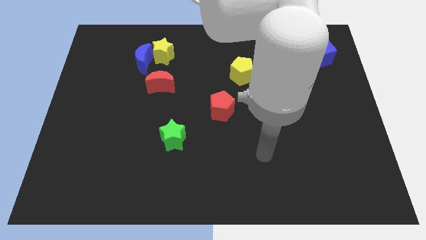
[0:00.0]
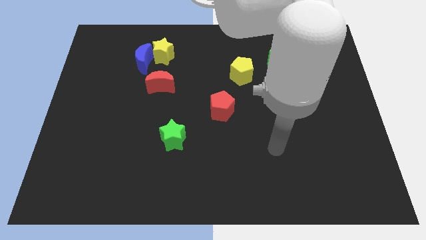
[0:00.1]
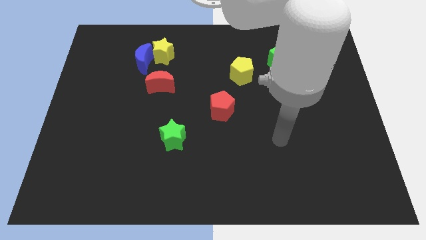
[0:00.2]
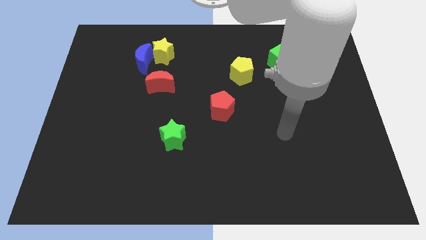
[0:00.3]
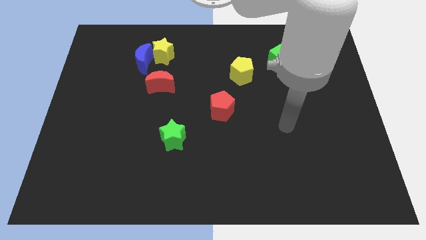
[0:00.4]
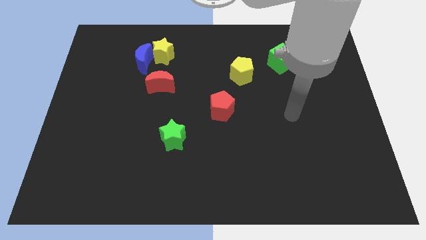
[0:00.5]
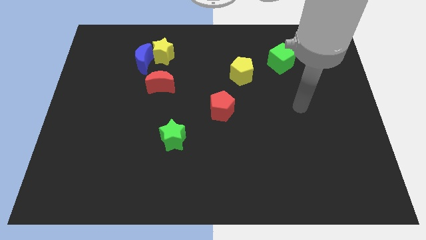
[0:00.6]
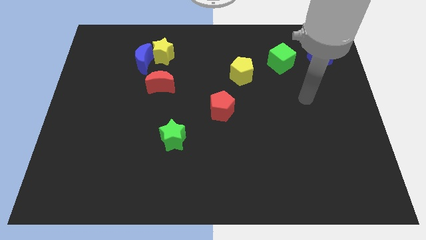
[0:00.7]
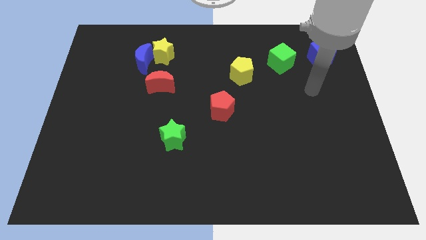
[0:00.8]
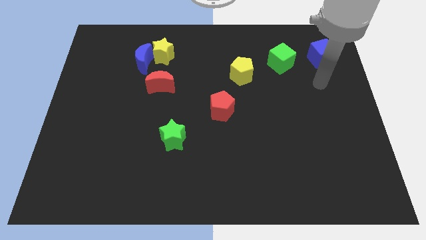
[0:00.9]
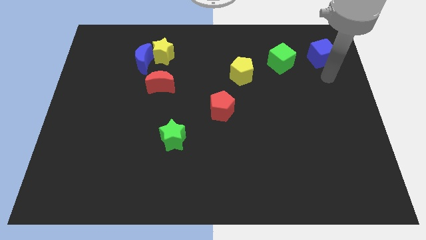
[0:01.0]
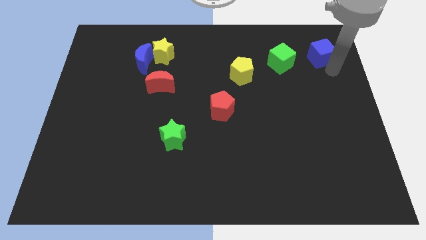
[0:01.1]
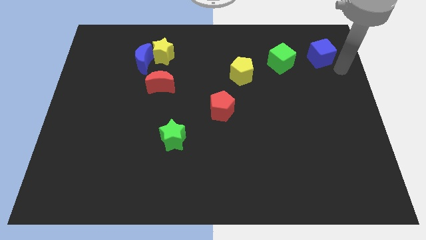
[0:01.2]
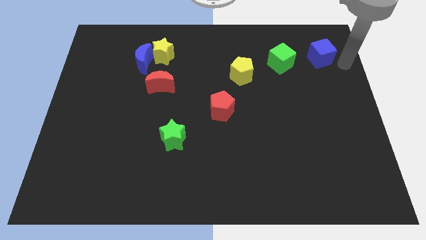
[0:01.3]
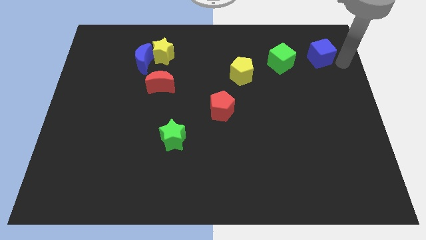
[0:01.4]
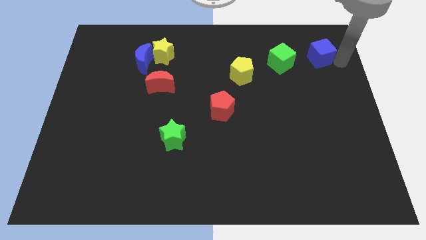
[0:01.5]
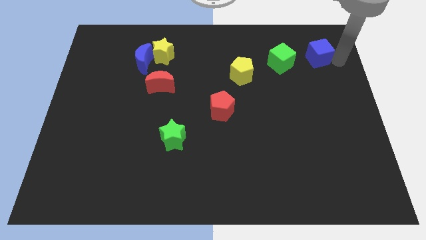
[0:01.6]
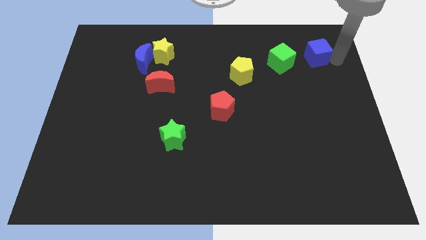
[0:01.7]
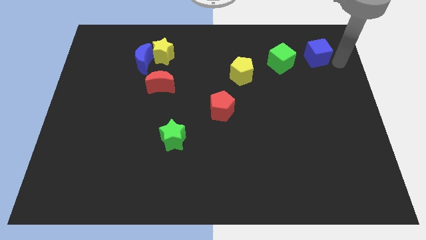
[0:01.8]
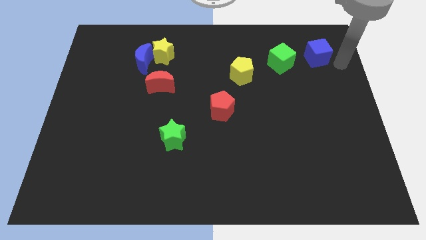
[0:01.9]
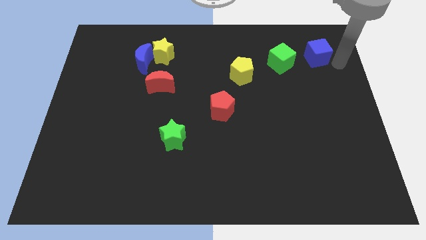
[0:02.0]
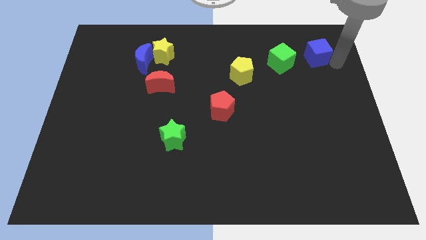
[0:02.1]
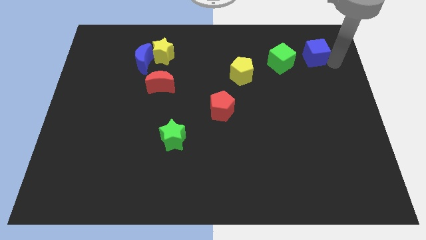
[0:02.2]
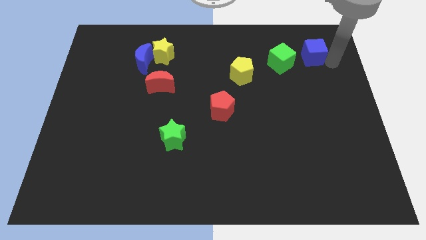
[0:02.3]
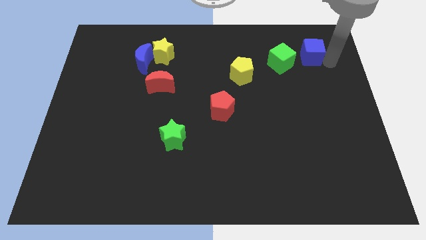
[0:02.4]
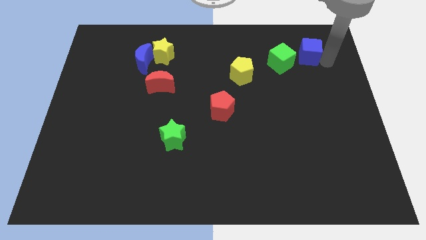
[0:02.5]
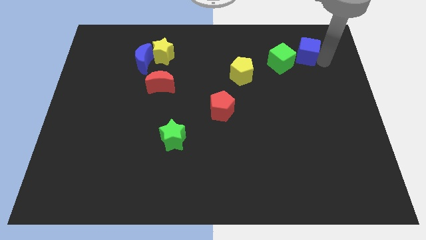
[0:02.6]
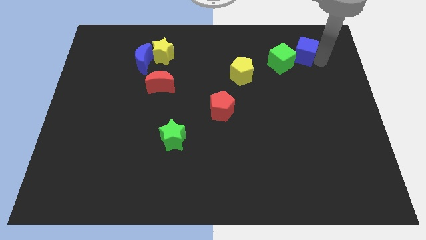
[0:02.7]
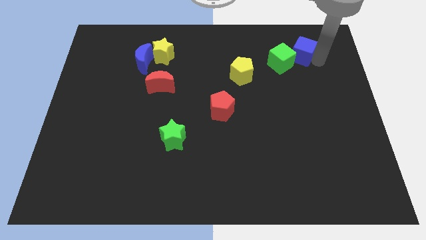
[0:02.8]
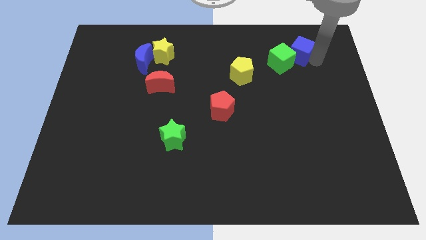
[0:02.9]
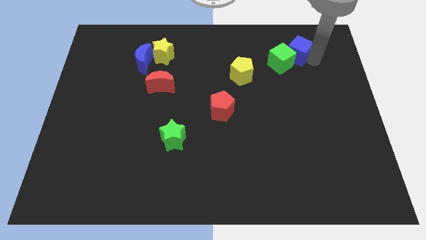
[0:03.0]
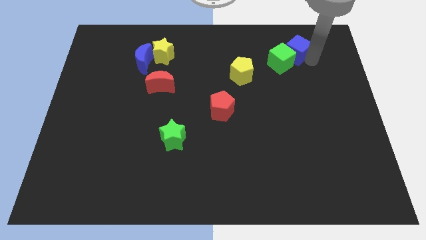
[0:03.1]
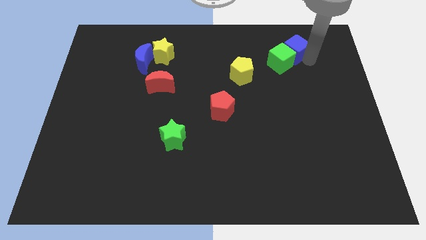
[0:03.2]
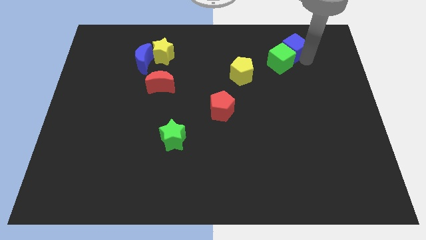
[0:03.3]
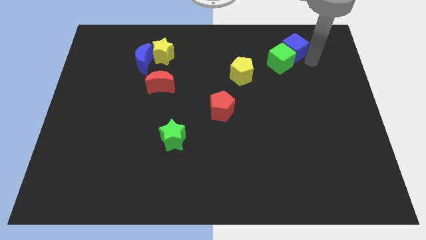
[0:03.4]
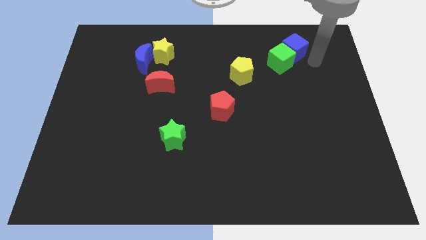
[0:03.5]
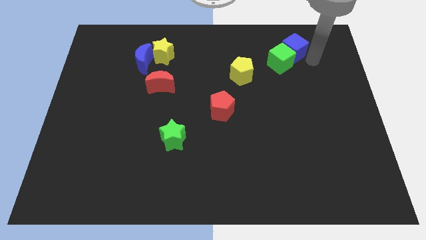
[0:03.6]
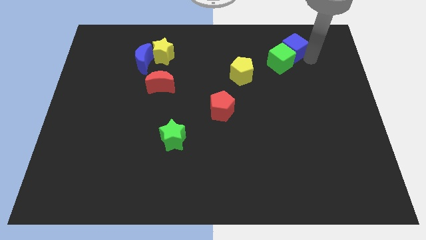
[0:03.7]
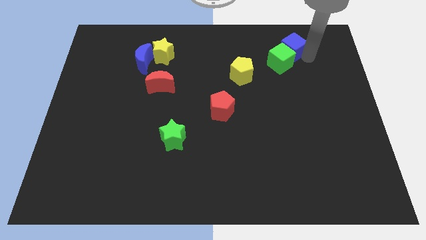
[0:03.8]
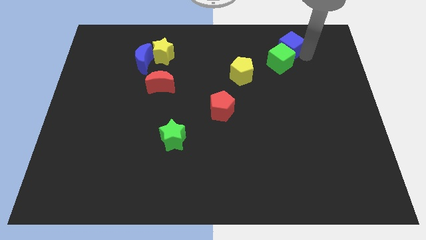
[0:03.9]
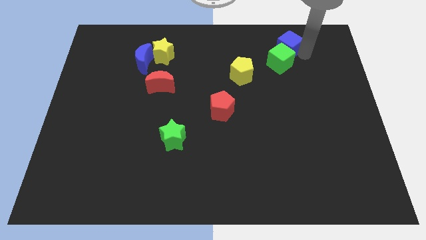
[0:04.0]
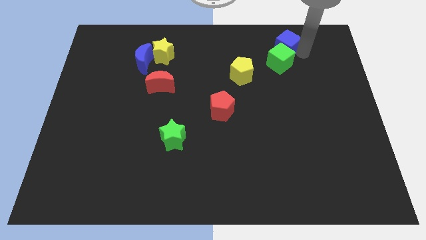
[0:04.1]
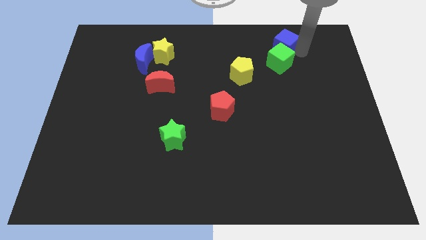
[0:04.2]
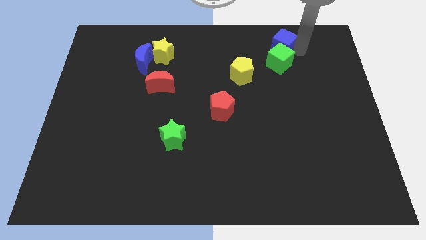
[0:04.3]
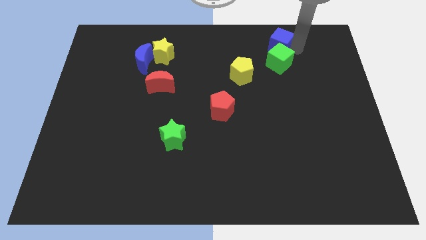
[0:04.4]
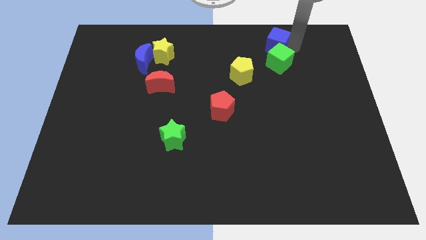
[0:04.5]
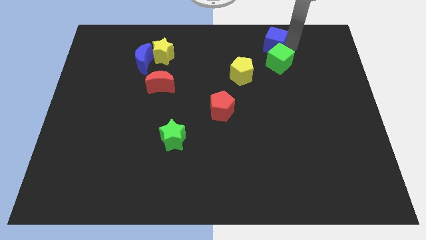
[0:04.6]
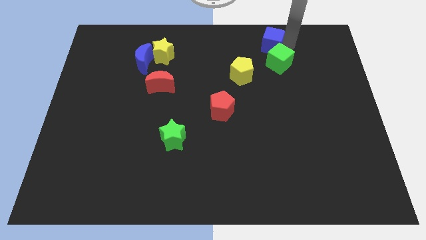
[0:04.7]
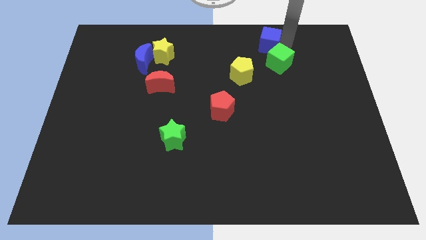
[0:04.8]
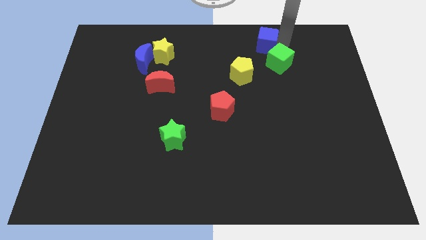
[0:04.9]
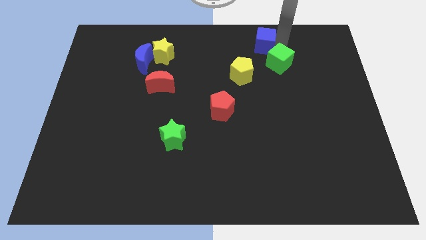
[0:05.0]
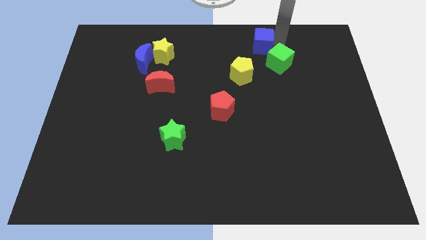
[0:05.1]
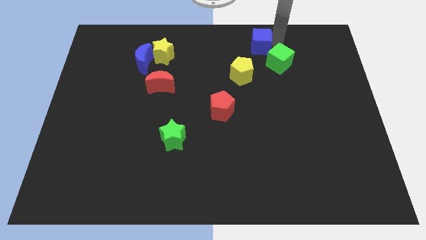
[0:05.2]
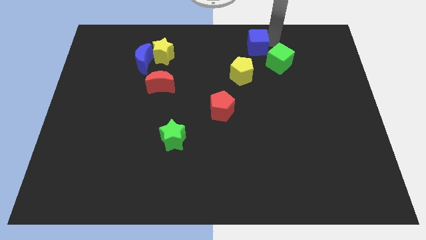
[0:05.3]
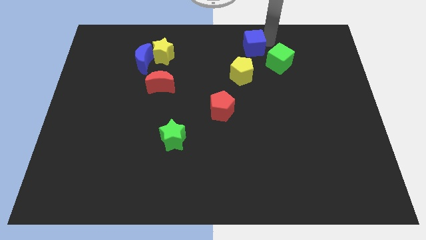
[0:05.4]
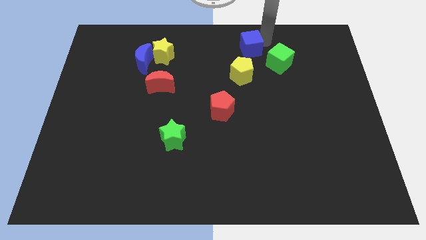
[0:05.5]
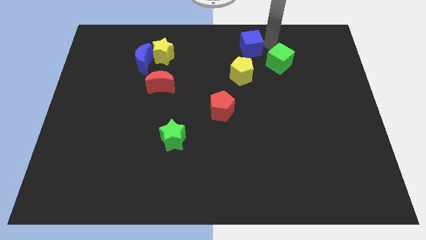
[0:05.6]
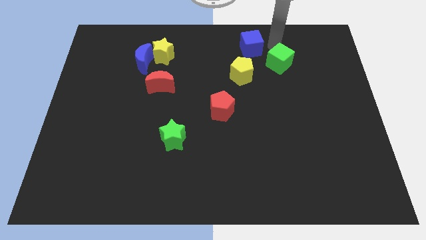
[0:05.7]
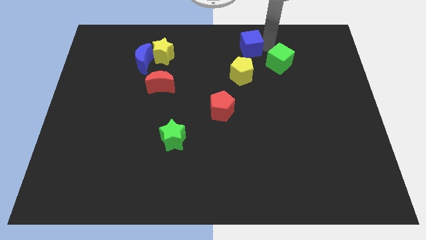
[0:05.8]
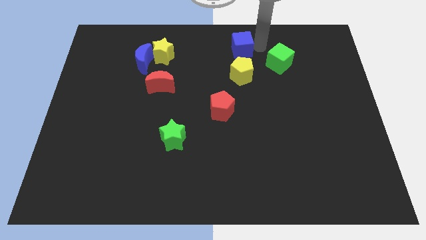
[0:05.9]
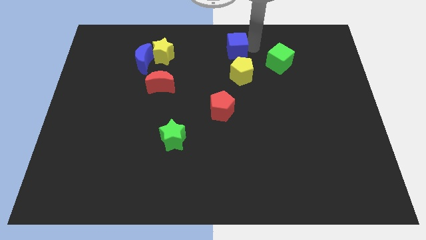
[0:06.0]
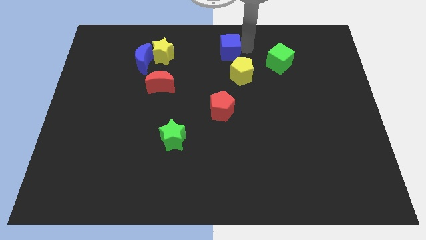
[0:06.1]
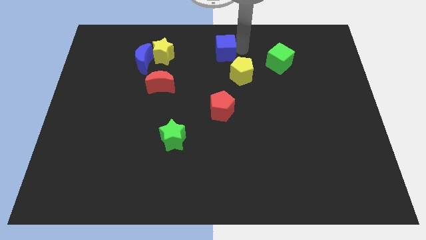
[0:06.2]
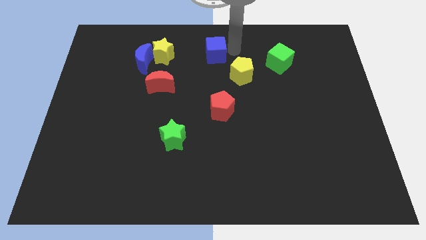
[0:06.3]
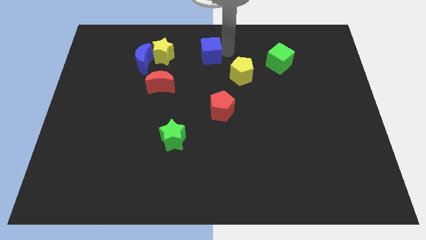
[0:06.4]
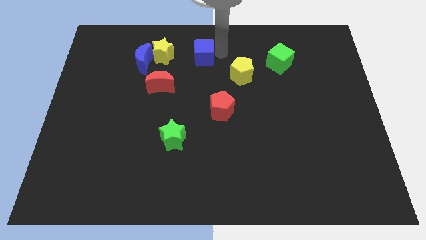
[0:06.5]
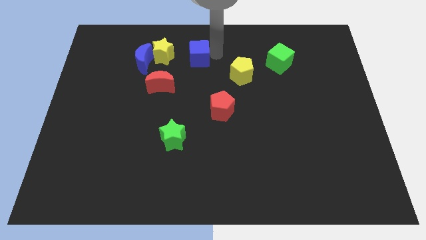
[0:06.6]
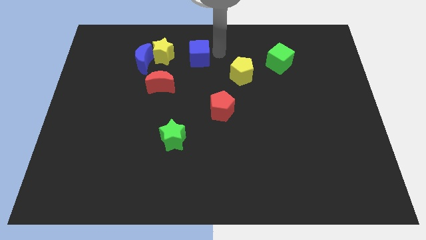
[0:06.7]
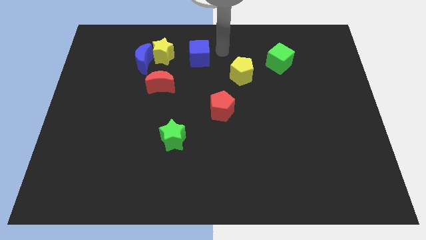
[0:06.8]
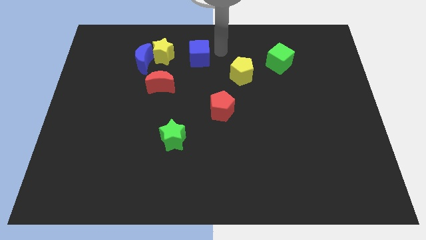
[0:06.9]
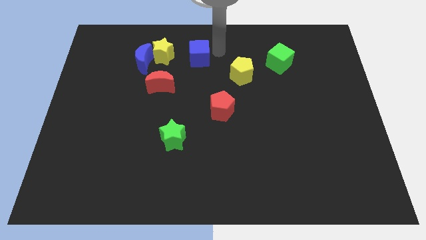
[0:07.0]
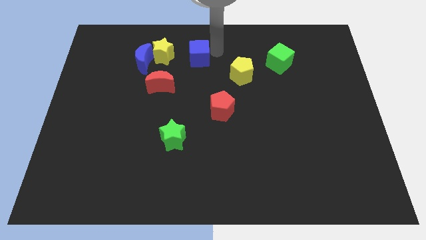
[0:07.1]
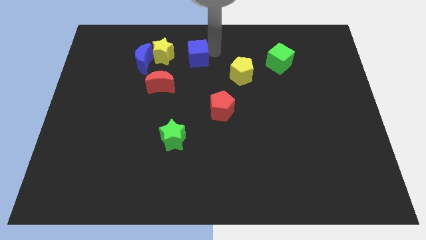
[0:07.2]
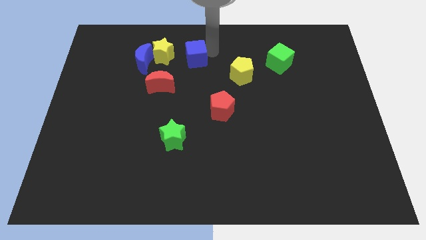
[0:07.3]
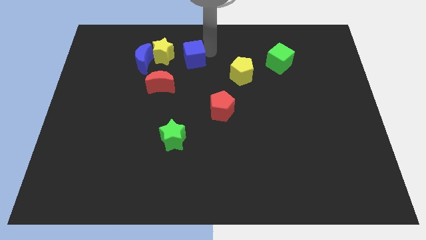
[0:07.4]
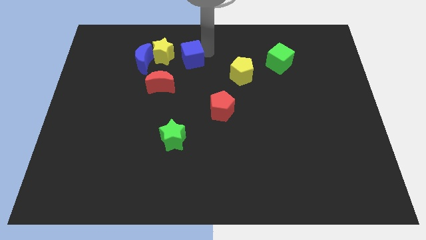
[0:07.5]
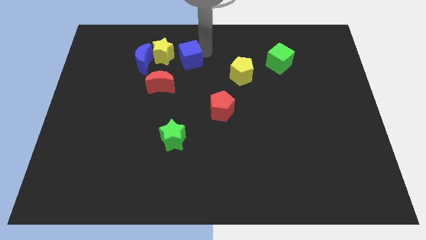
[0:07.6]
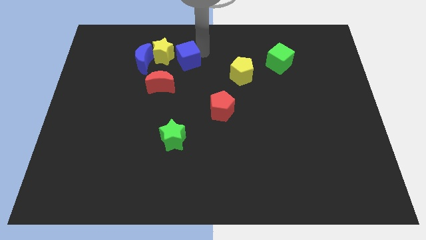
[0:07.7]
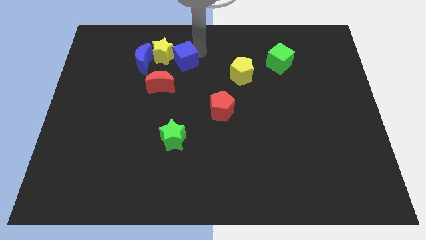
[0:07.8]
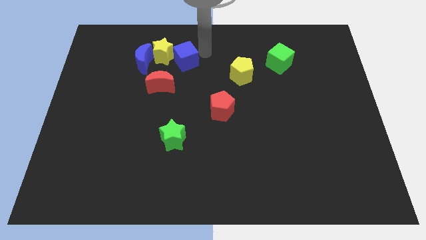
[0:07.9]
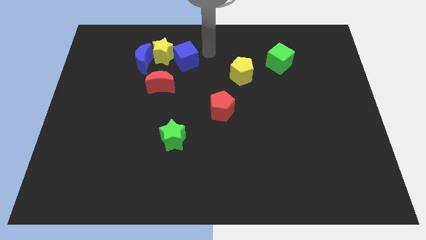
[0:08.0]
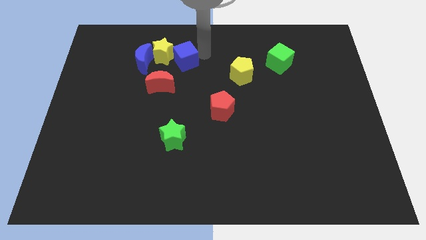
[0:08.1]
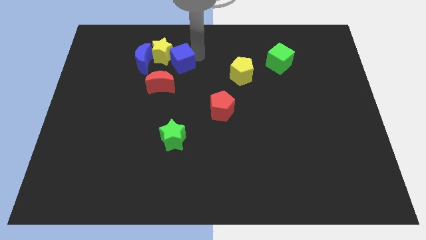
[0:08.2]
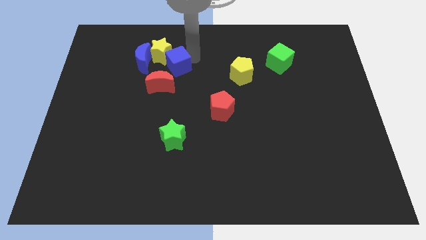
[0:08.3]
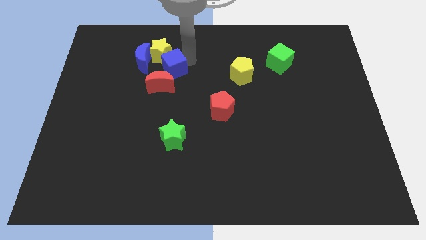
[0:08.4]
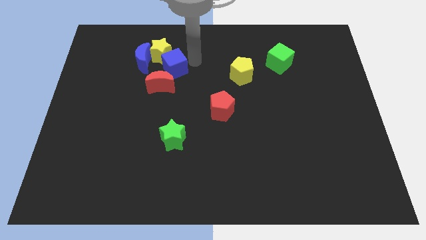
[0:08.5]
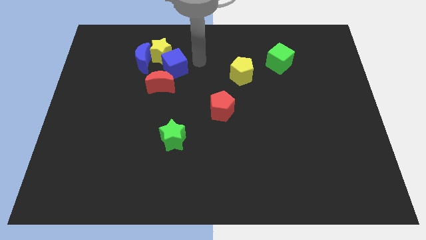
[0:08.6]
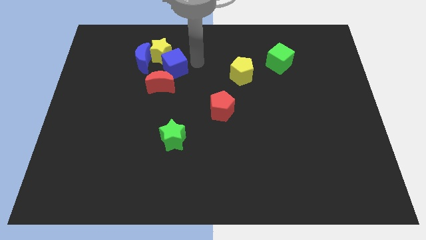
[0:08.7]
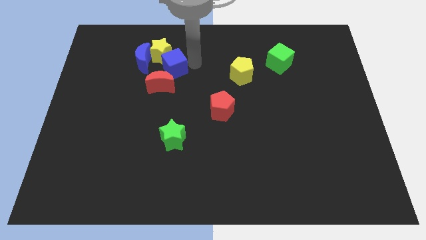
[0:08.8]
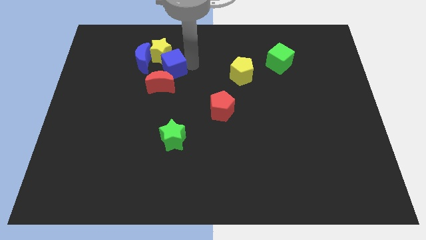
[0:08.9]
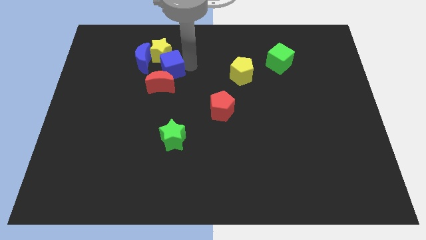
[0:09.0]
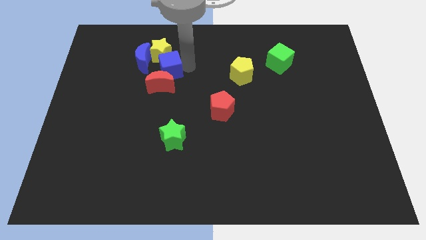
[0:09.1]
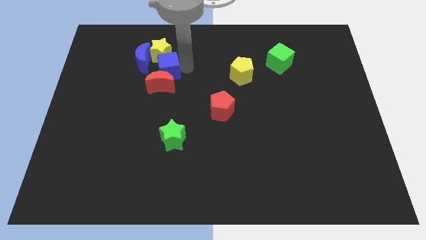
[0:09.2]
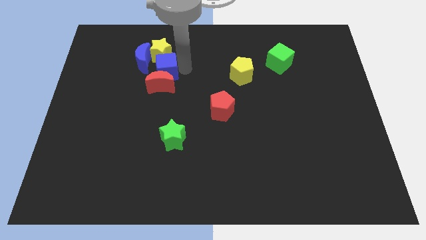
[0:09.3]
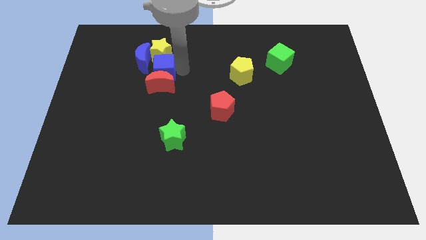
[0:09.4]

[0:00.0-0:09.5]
move the blue cube to the bottom left side of the yellow star
